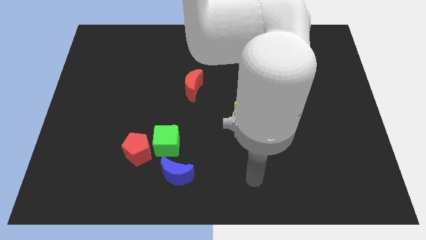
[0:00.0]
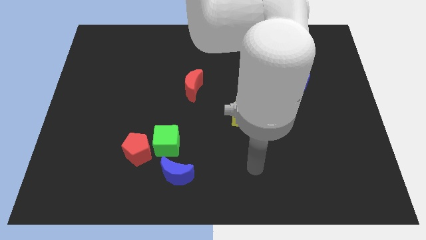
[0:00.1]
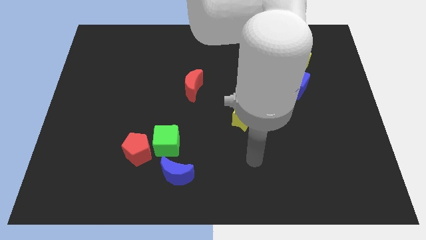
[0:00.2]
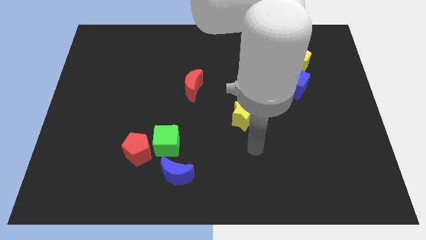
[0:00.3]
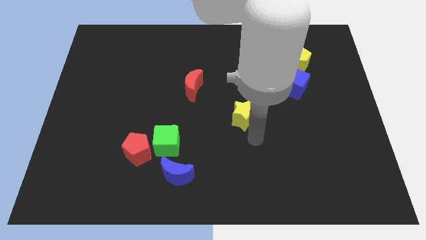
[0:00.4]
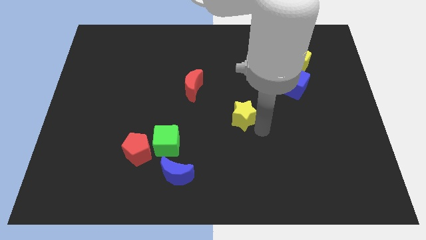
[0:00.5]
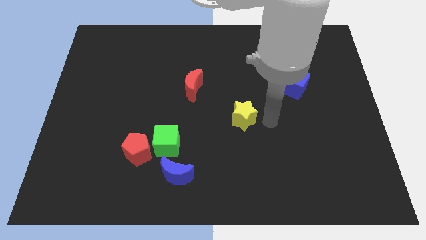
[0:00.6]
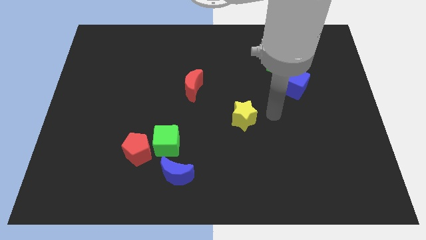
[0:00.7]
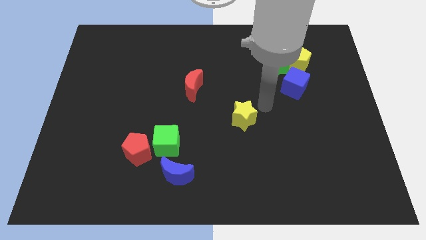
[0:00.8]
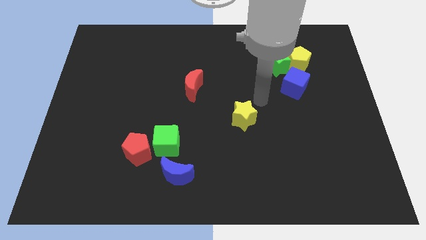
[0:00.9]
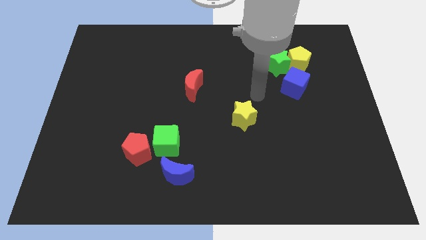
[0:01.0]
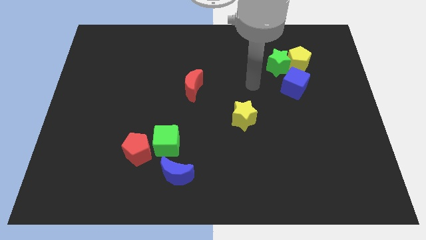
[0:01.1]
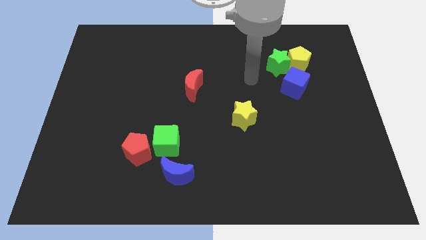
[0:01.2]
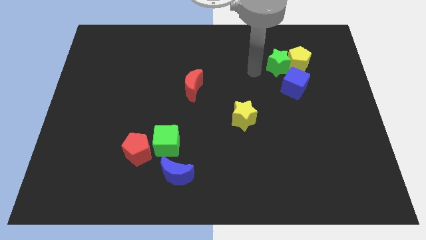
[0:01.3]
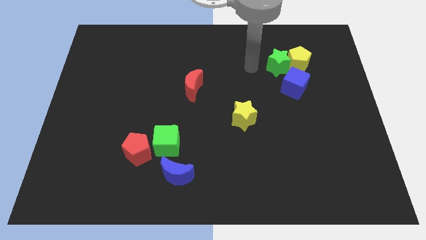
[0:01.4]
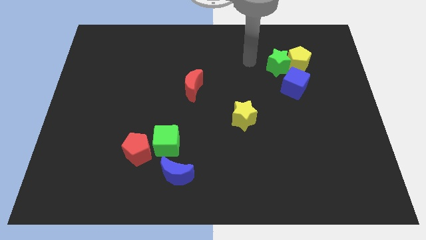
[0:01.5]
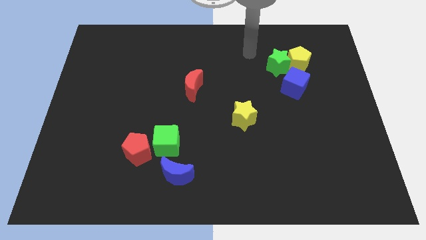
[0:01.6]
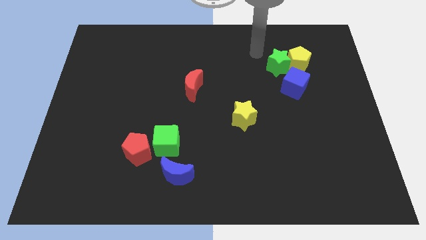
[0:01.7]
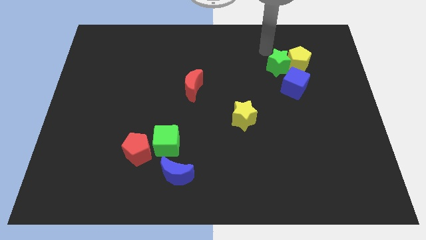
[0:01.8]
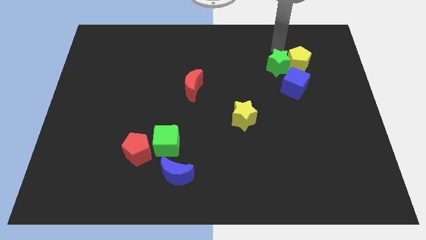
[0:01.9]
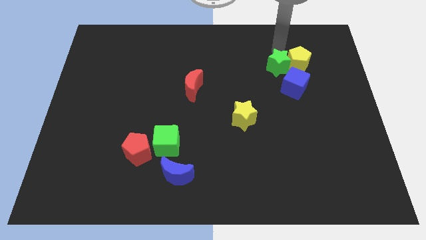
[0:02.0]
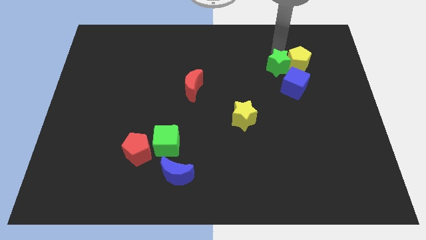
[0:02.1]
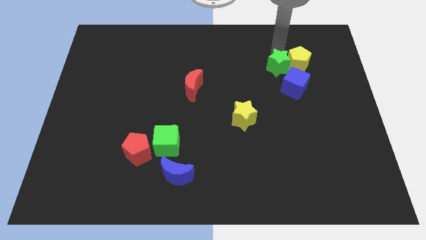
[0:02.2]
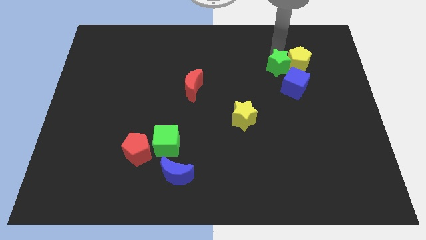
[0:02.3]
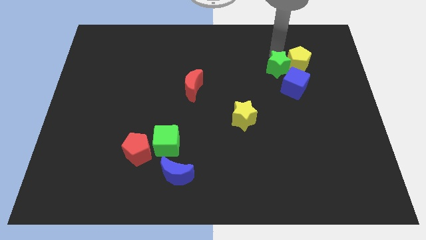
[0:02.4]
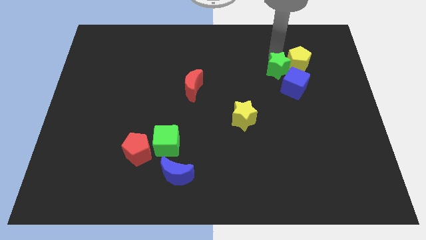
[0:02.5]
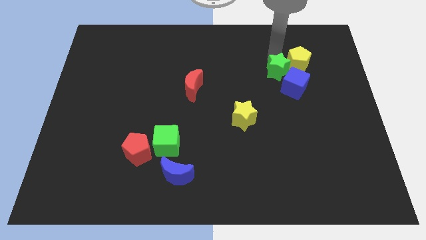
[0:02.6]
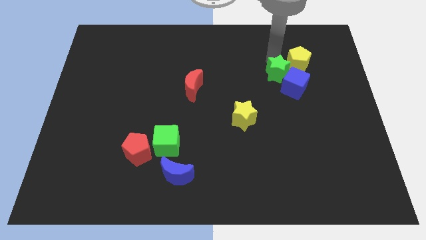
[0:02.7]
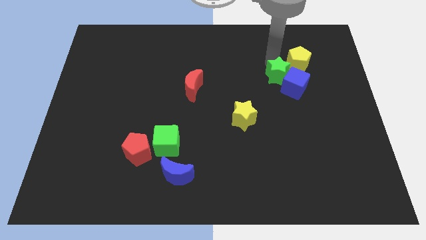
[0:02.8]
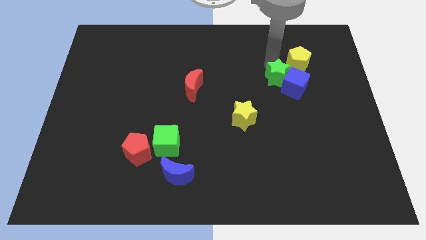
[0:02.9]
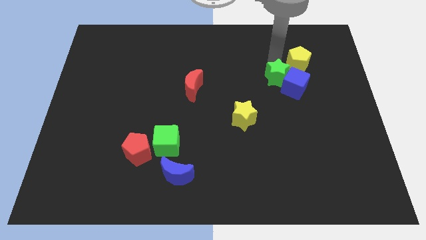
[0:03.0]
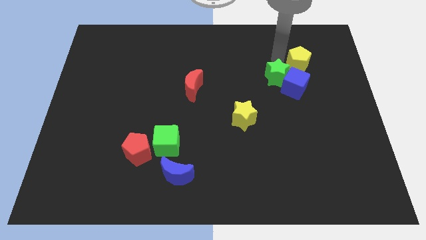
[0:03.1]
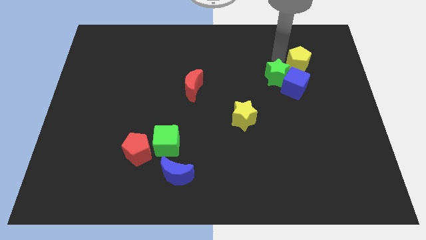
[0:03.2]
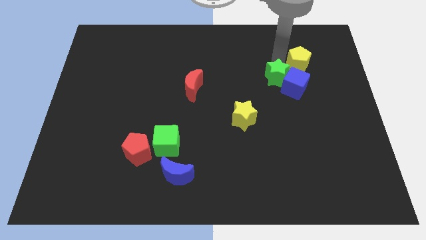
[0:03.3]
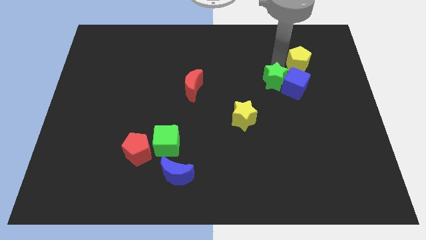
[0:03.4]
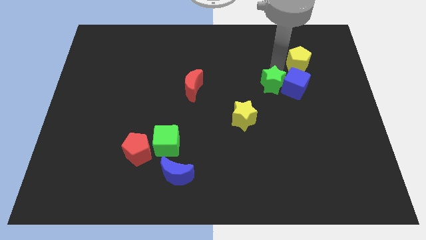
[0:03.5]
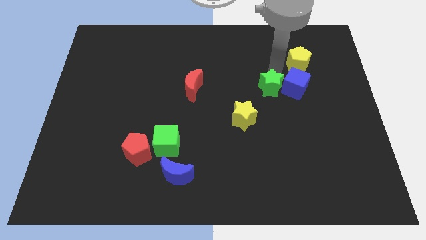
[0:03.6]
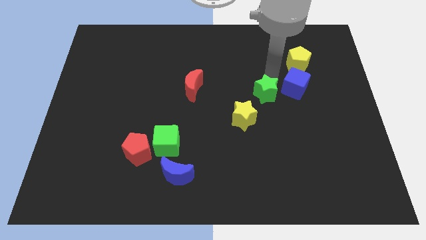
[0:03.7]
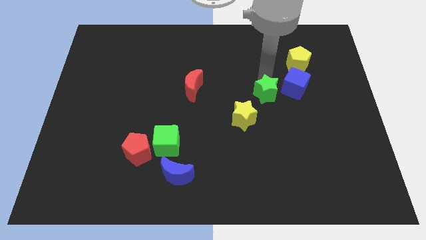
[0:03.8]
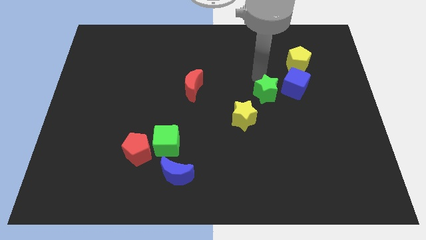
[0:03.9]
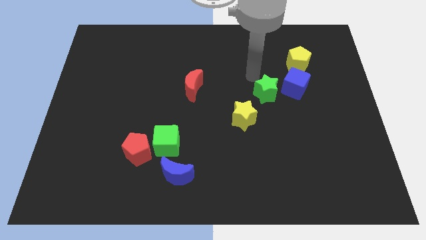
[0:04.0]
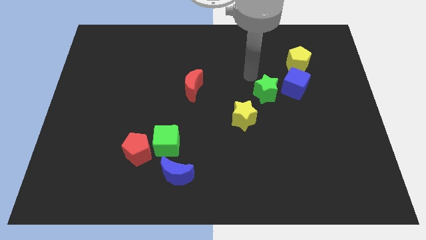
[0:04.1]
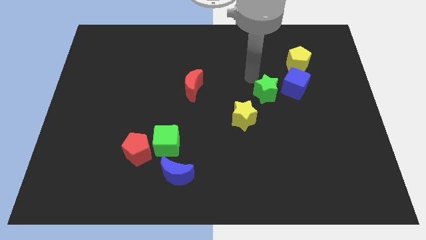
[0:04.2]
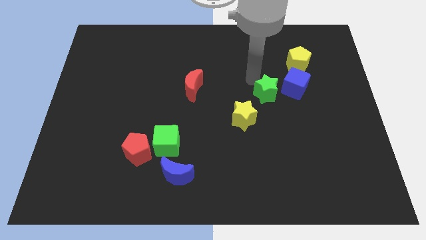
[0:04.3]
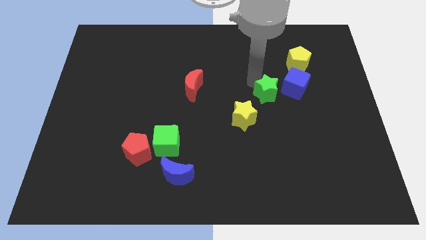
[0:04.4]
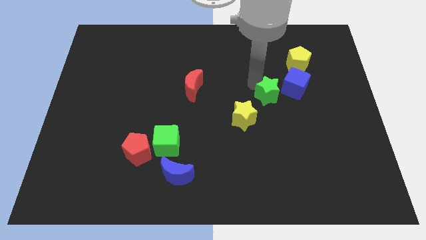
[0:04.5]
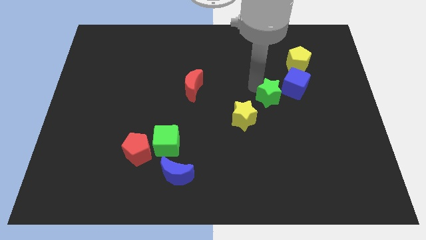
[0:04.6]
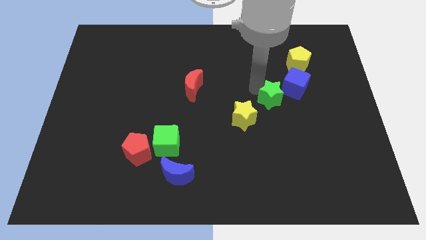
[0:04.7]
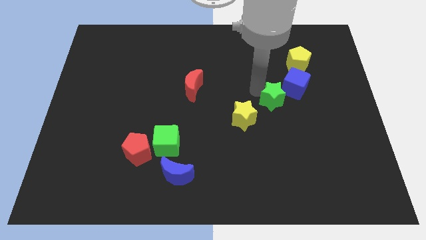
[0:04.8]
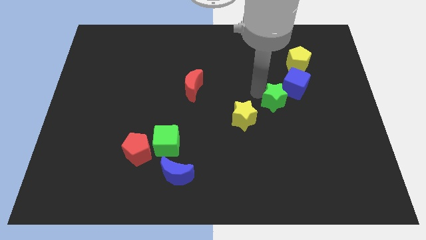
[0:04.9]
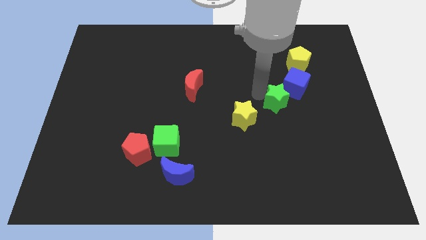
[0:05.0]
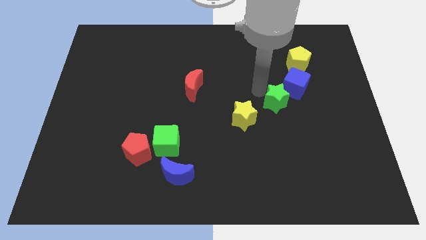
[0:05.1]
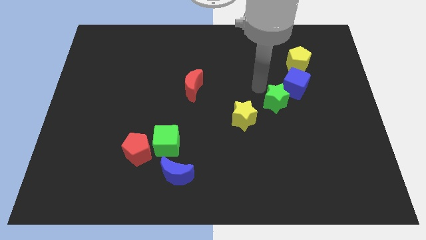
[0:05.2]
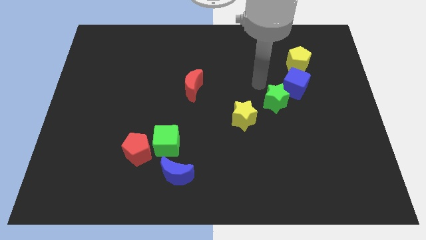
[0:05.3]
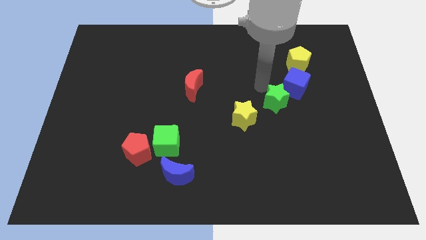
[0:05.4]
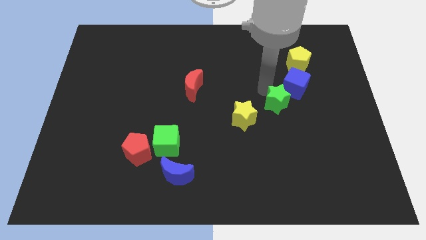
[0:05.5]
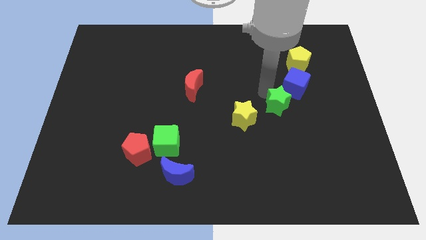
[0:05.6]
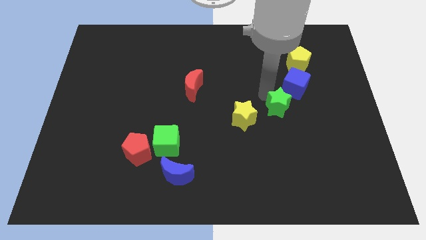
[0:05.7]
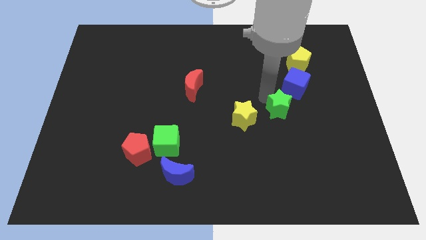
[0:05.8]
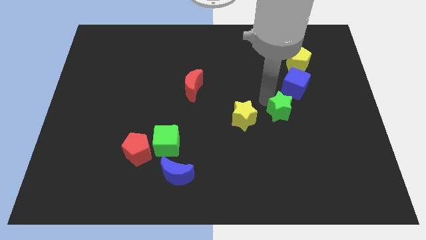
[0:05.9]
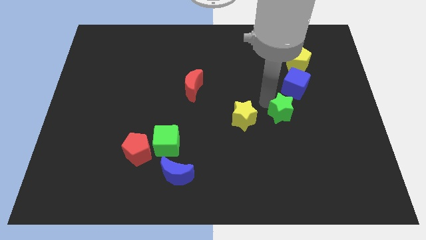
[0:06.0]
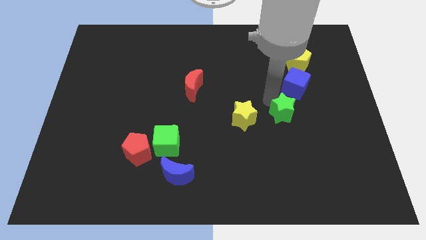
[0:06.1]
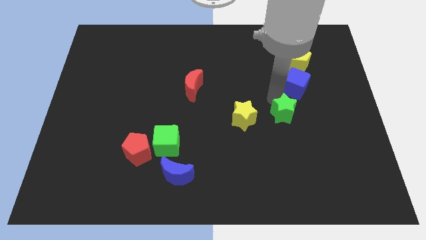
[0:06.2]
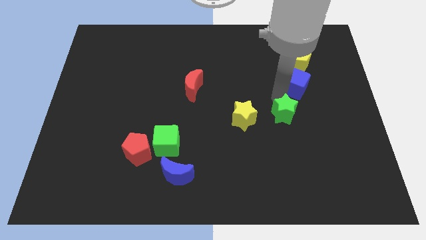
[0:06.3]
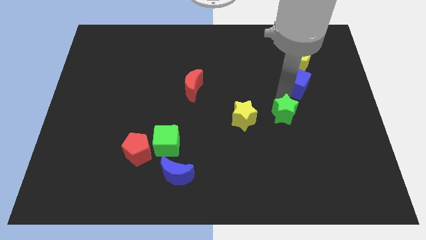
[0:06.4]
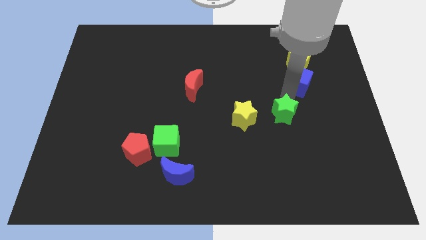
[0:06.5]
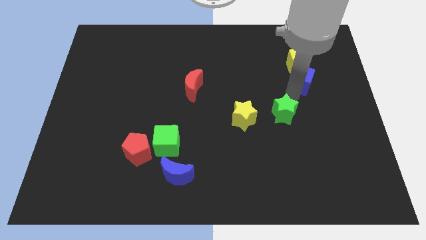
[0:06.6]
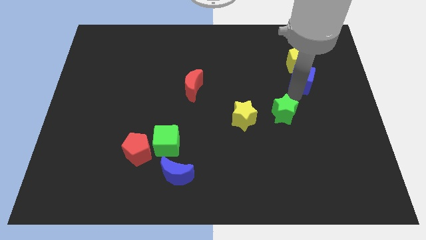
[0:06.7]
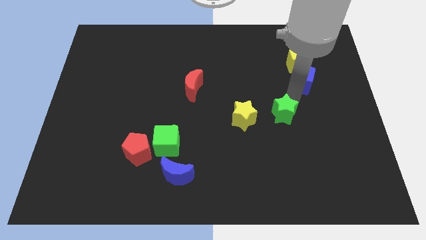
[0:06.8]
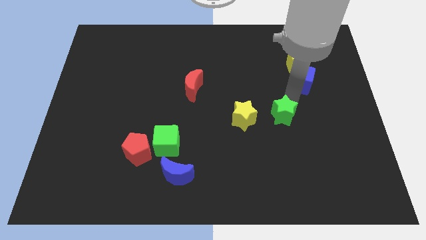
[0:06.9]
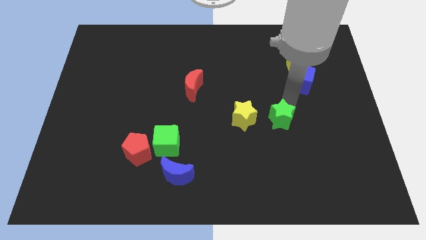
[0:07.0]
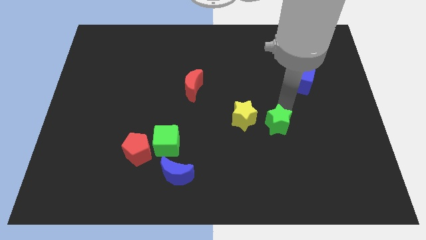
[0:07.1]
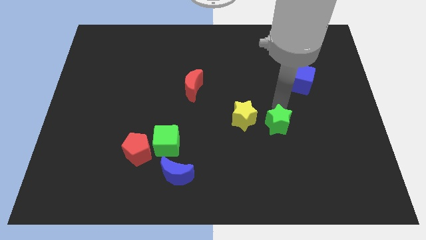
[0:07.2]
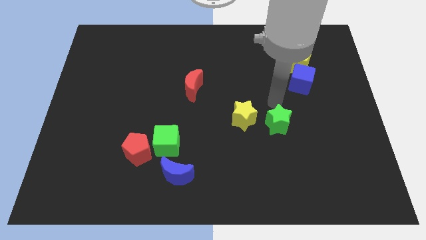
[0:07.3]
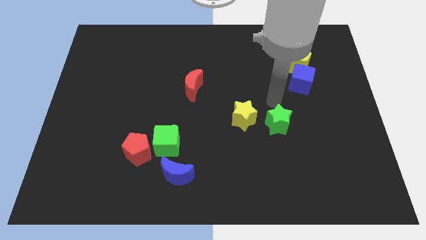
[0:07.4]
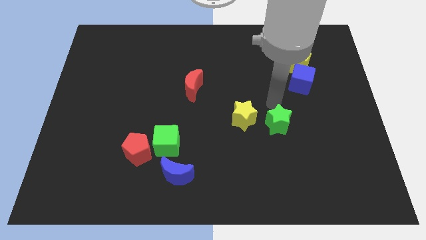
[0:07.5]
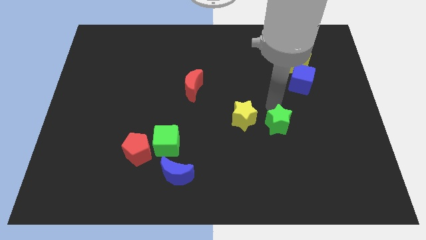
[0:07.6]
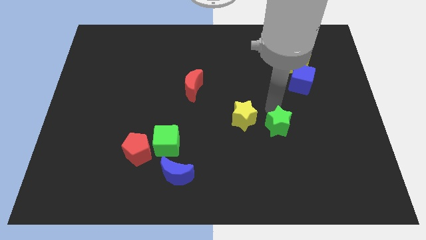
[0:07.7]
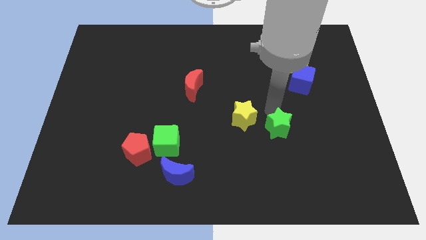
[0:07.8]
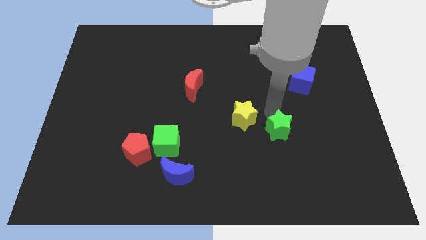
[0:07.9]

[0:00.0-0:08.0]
push the green star downwards

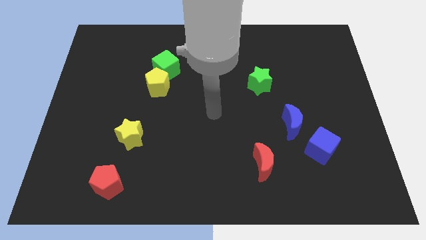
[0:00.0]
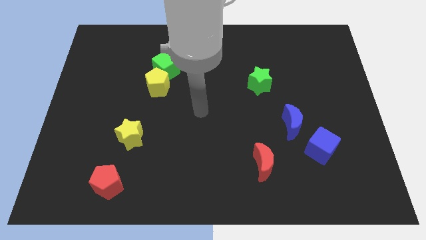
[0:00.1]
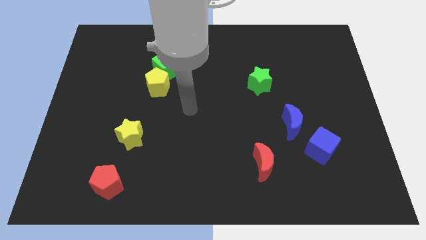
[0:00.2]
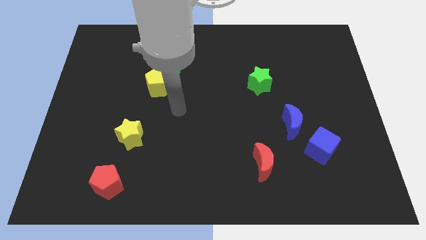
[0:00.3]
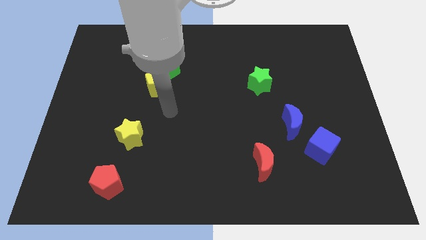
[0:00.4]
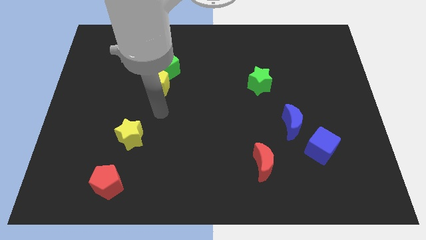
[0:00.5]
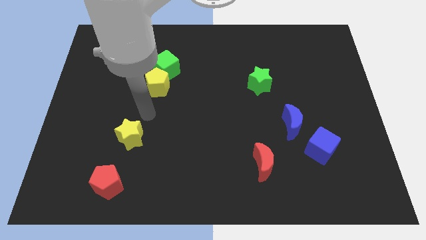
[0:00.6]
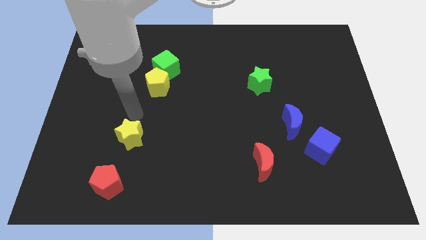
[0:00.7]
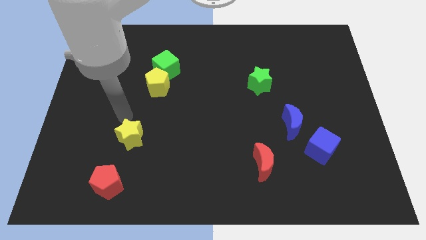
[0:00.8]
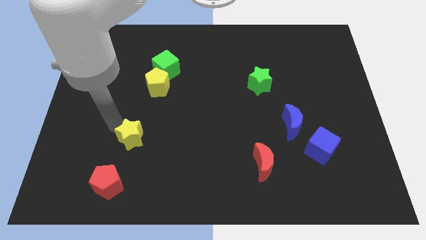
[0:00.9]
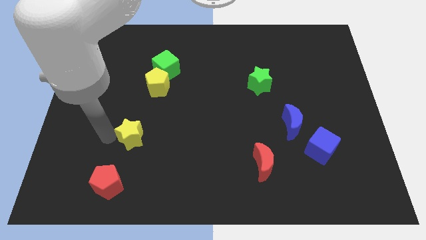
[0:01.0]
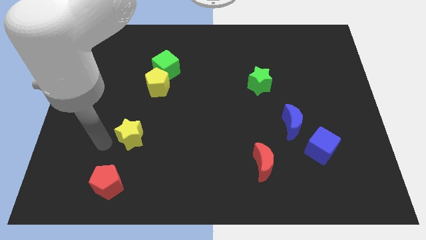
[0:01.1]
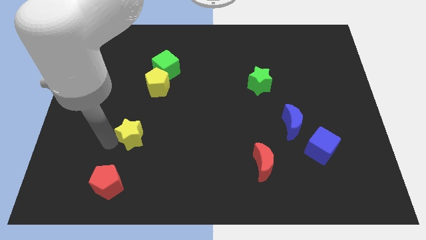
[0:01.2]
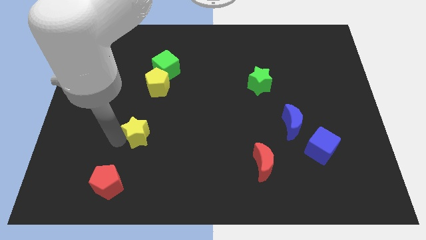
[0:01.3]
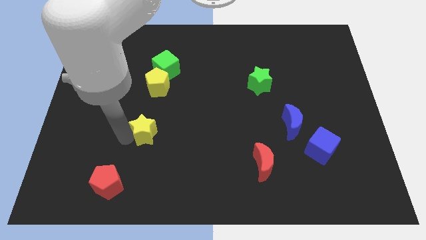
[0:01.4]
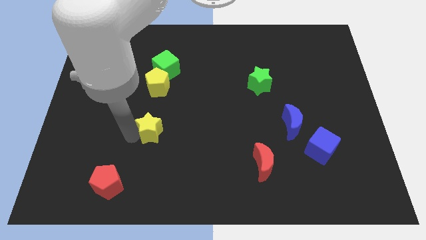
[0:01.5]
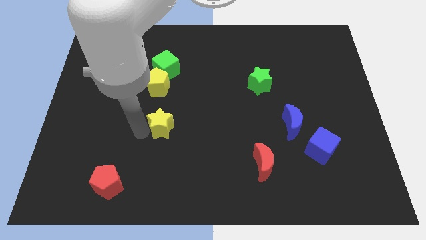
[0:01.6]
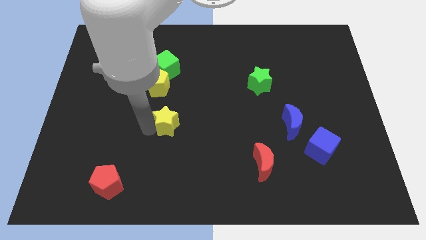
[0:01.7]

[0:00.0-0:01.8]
slightly push the yellow star to the right
